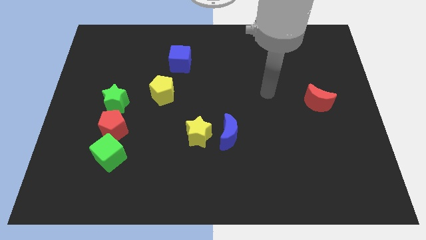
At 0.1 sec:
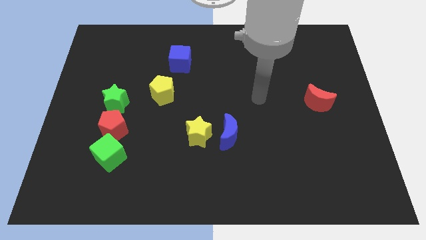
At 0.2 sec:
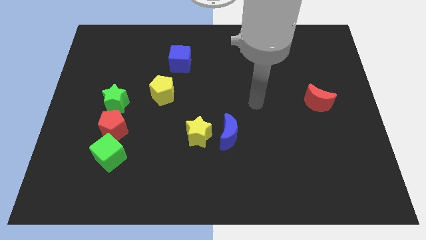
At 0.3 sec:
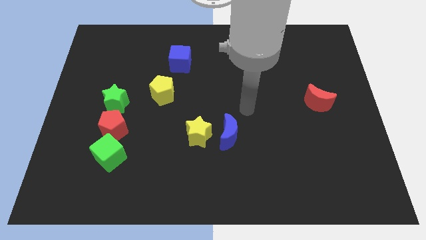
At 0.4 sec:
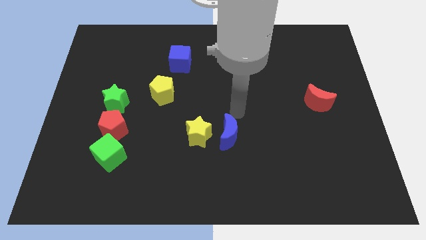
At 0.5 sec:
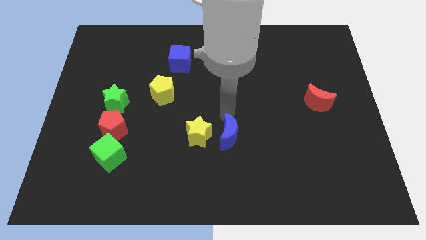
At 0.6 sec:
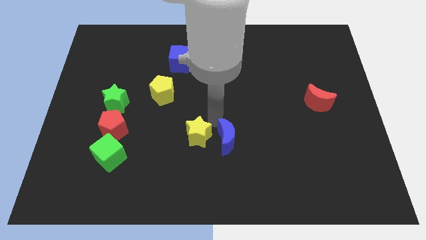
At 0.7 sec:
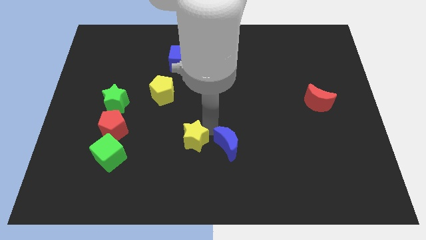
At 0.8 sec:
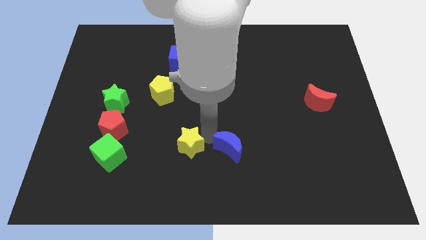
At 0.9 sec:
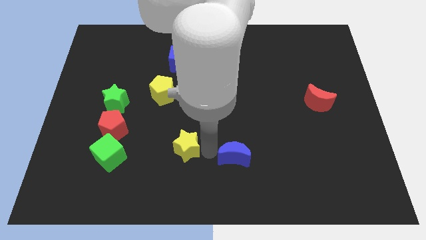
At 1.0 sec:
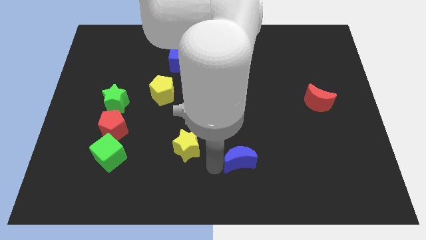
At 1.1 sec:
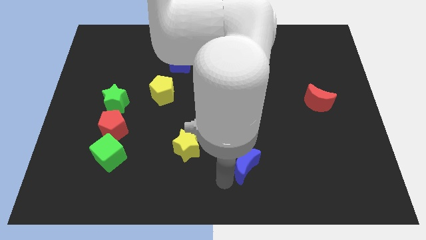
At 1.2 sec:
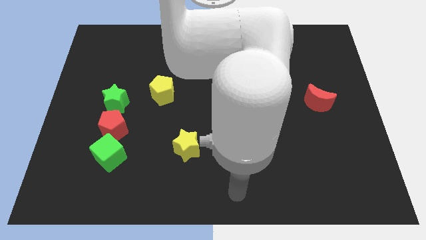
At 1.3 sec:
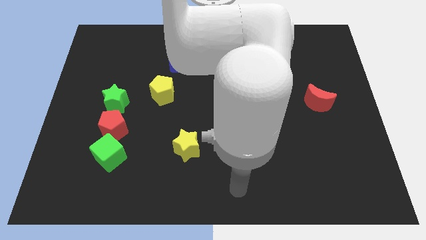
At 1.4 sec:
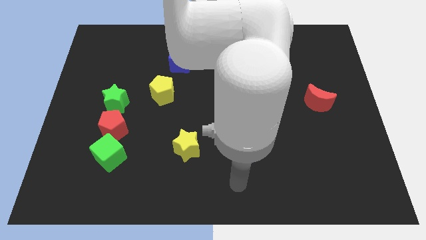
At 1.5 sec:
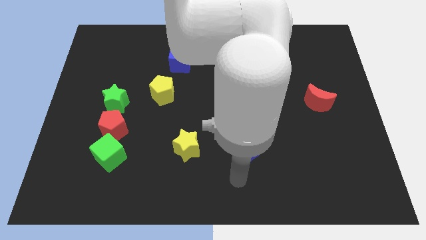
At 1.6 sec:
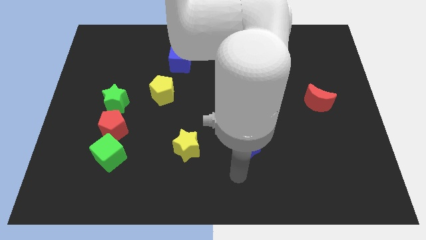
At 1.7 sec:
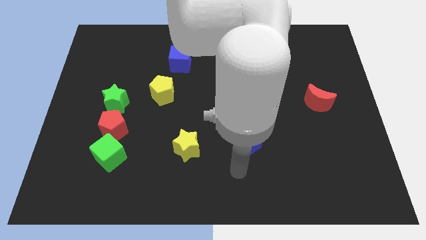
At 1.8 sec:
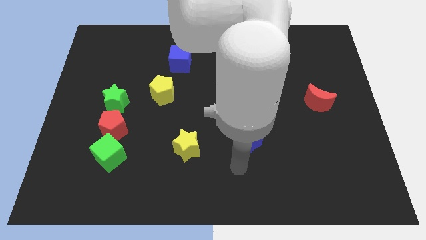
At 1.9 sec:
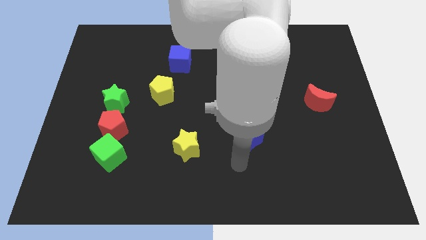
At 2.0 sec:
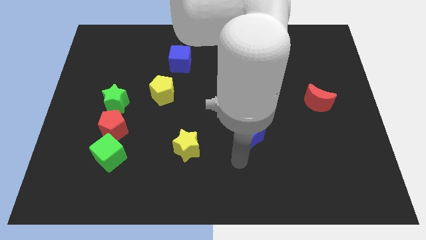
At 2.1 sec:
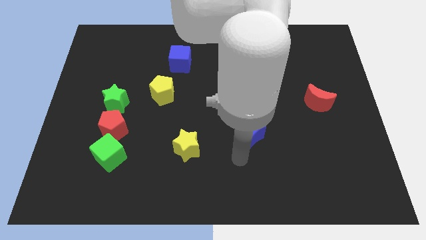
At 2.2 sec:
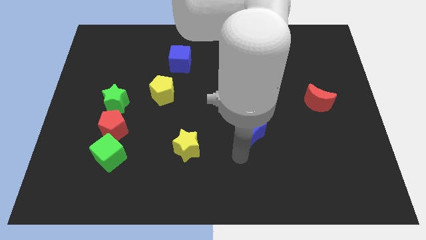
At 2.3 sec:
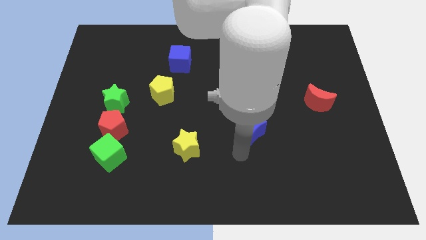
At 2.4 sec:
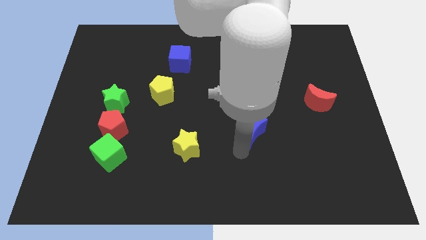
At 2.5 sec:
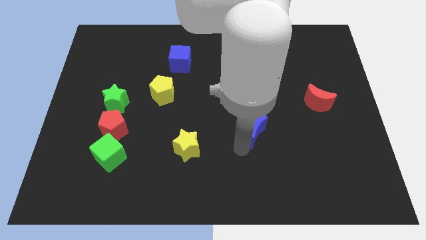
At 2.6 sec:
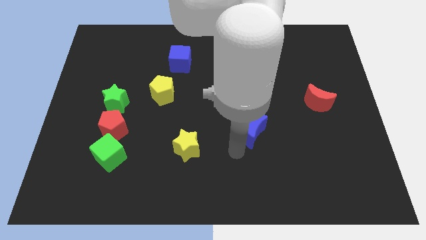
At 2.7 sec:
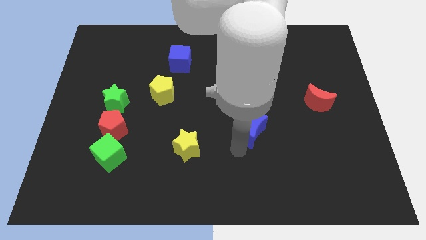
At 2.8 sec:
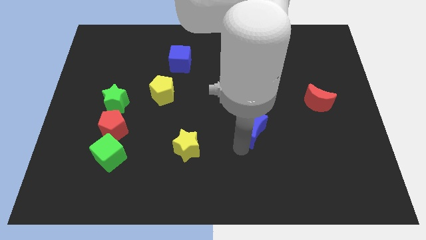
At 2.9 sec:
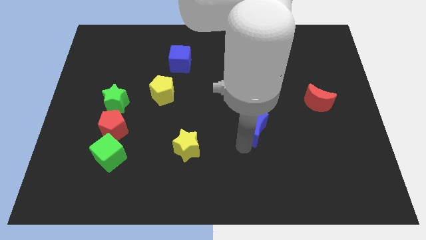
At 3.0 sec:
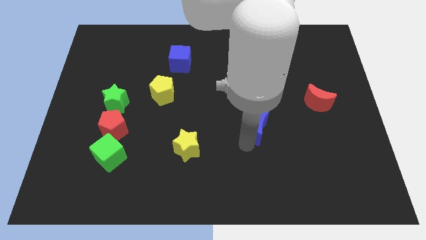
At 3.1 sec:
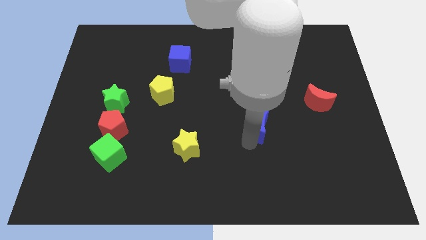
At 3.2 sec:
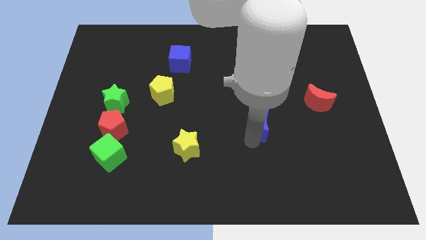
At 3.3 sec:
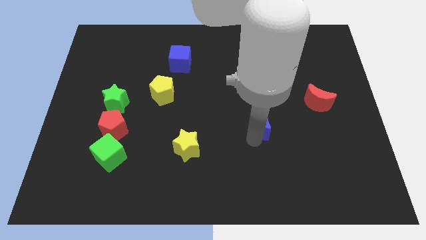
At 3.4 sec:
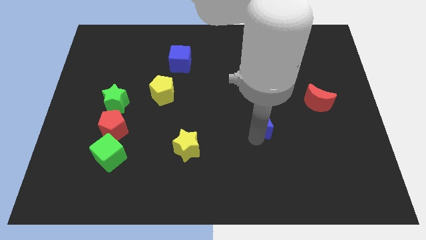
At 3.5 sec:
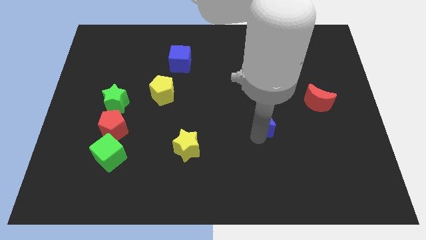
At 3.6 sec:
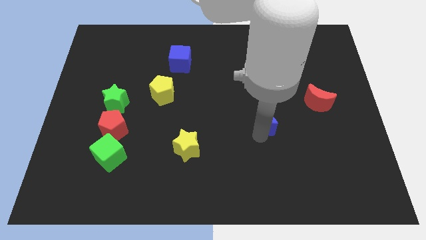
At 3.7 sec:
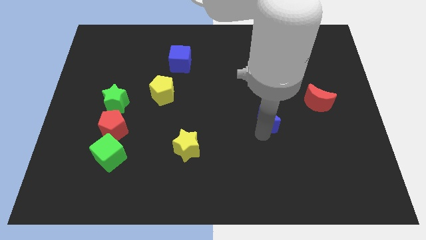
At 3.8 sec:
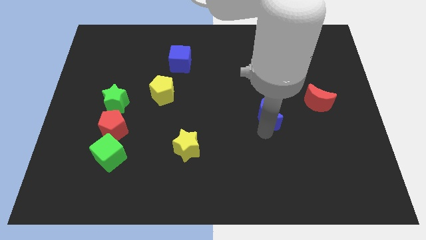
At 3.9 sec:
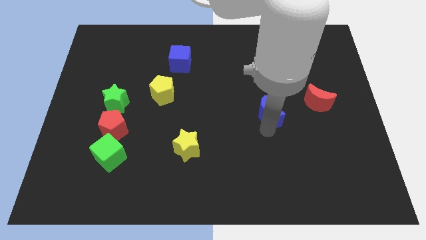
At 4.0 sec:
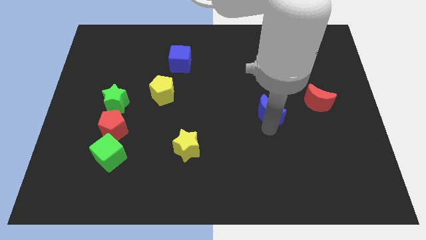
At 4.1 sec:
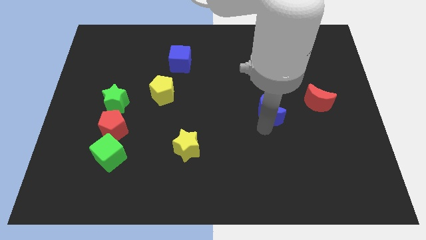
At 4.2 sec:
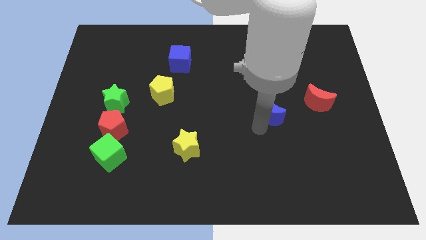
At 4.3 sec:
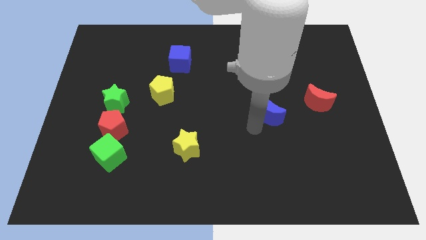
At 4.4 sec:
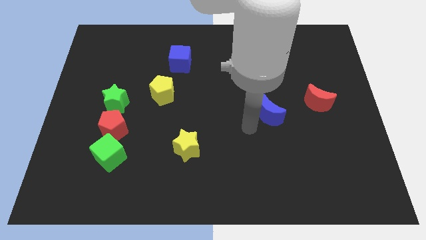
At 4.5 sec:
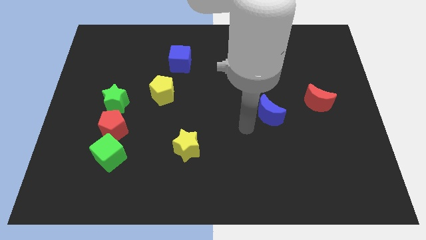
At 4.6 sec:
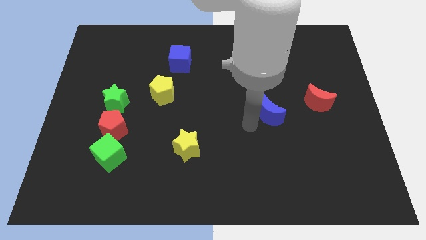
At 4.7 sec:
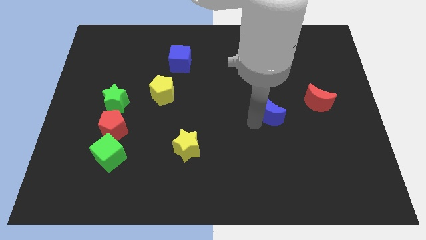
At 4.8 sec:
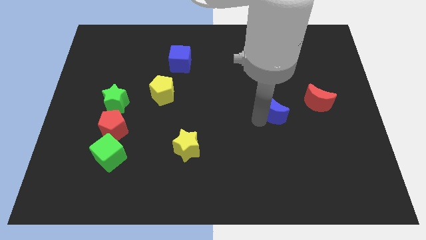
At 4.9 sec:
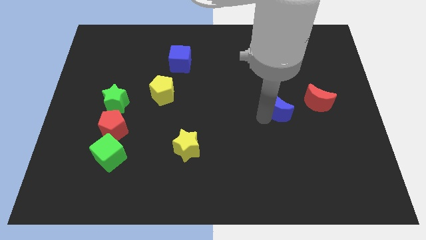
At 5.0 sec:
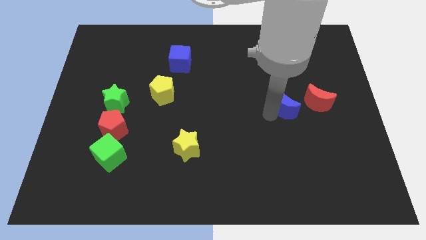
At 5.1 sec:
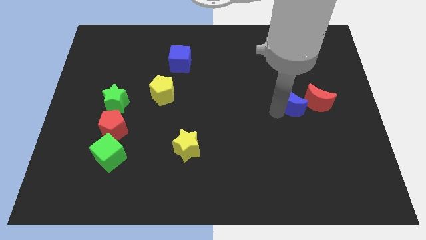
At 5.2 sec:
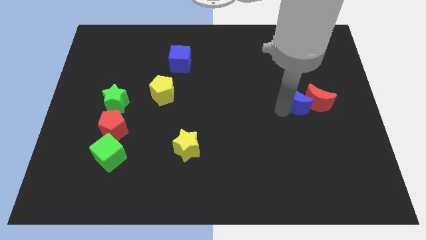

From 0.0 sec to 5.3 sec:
move the blue moon to the red moon

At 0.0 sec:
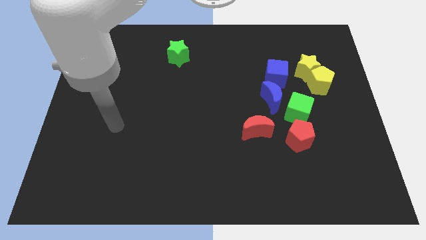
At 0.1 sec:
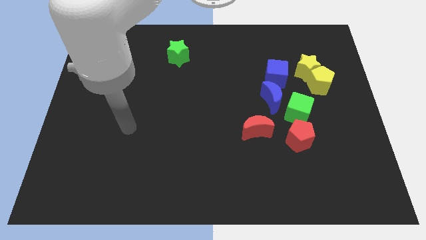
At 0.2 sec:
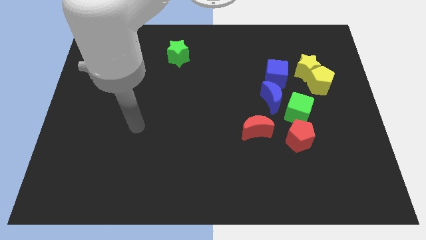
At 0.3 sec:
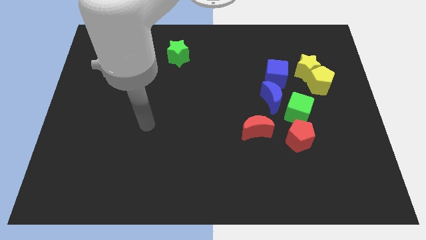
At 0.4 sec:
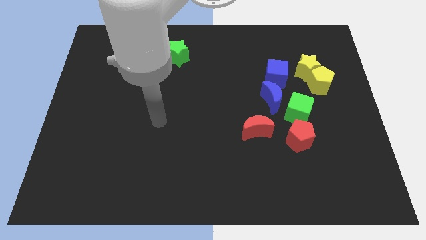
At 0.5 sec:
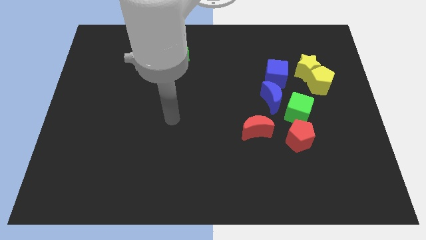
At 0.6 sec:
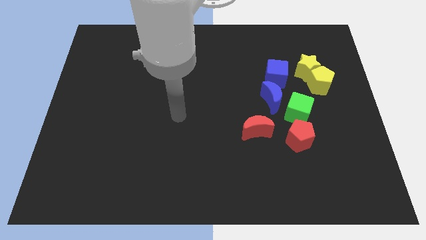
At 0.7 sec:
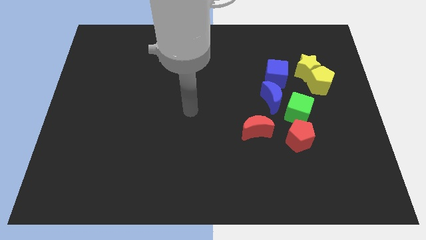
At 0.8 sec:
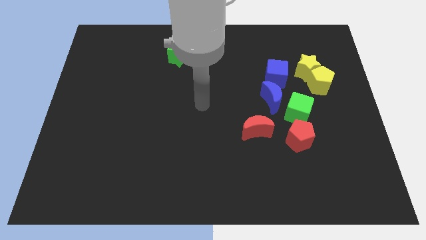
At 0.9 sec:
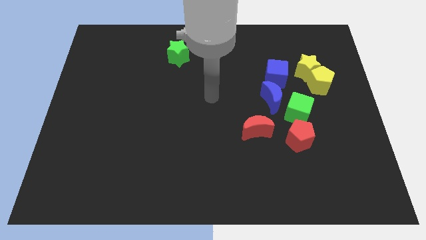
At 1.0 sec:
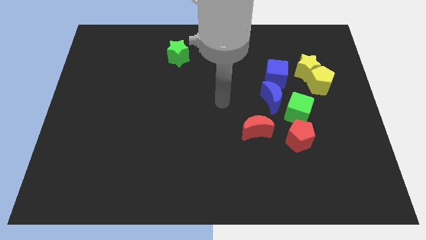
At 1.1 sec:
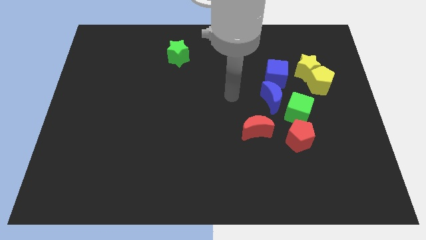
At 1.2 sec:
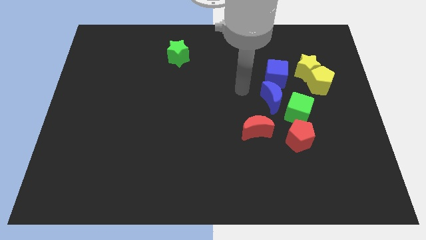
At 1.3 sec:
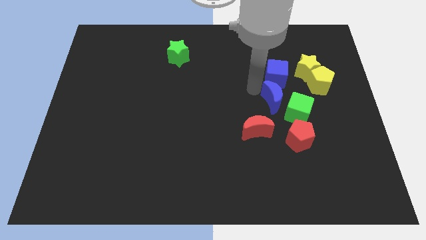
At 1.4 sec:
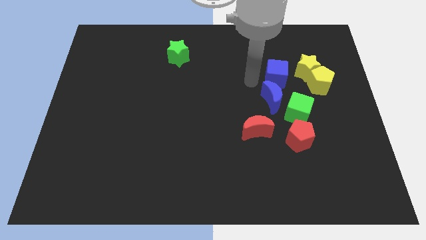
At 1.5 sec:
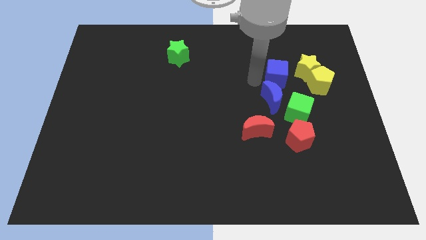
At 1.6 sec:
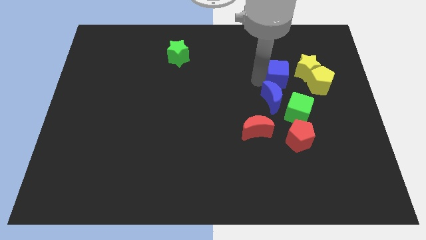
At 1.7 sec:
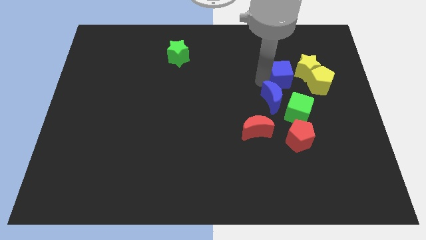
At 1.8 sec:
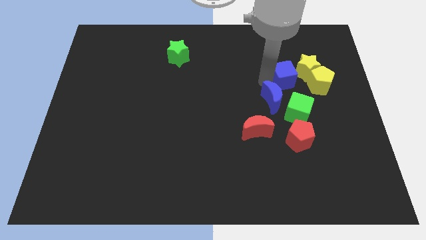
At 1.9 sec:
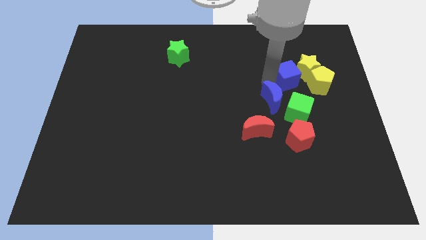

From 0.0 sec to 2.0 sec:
slide the blue cube next to the yellow star
